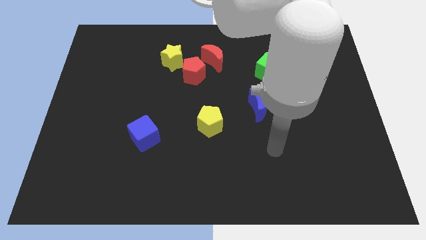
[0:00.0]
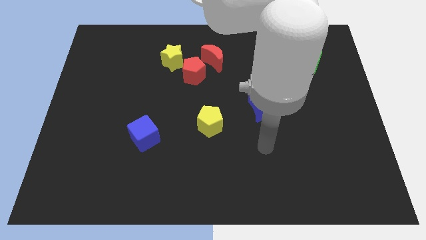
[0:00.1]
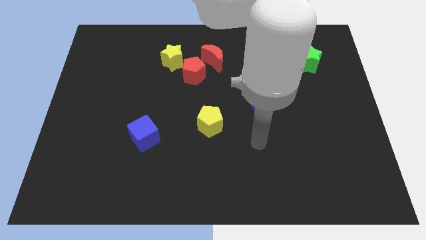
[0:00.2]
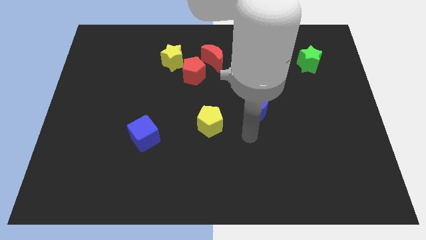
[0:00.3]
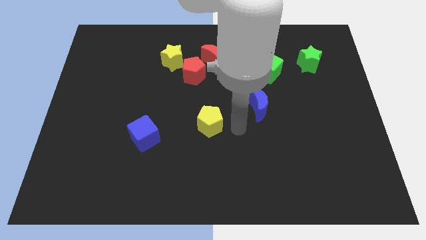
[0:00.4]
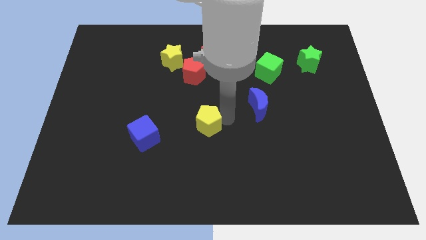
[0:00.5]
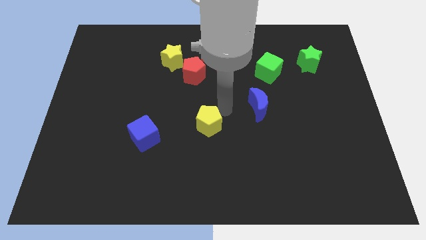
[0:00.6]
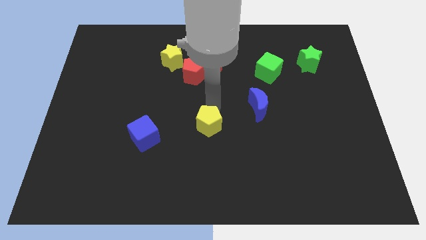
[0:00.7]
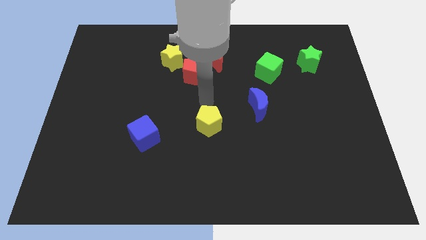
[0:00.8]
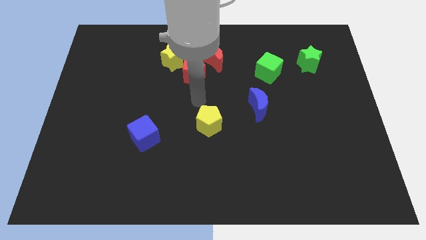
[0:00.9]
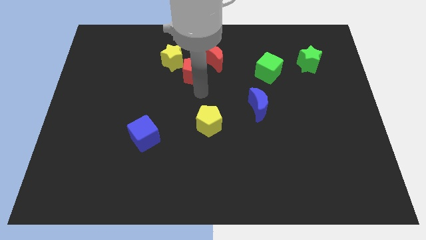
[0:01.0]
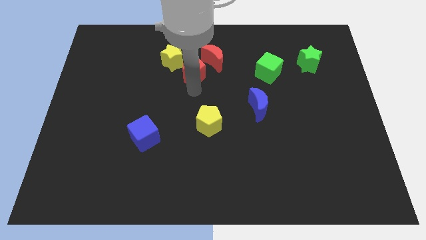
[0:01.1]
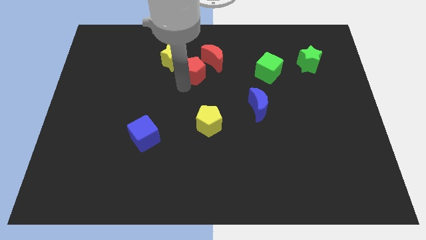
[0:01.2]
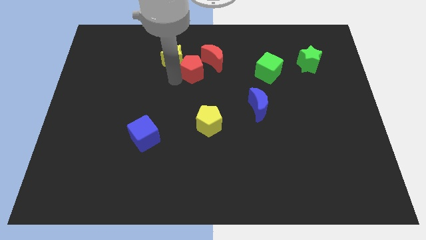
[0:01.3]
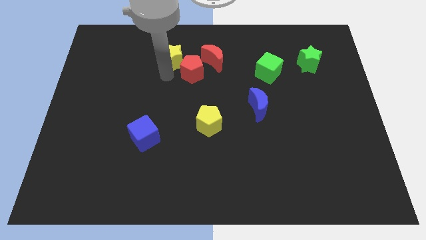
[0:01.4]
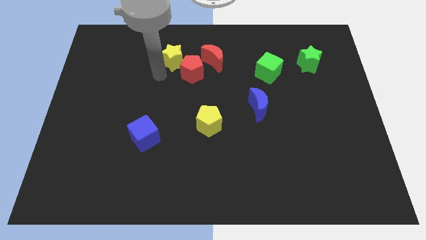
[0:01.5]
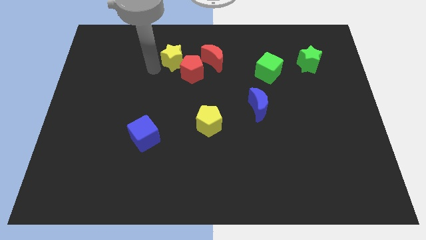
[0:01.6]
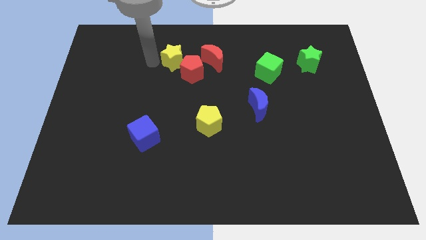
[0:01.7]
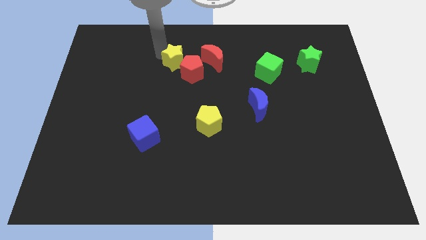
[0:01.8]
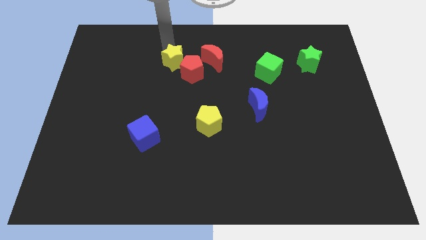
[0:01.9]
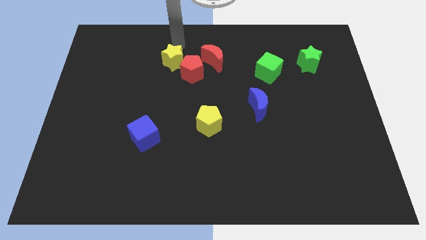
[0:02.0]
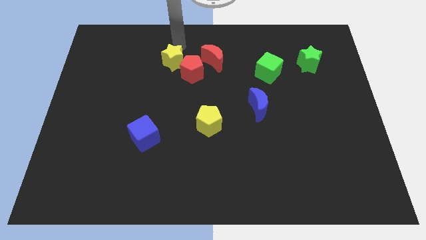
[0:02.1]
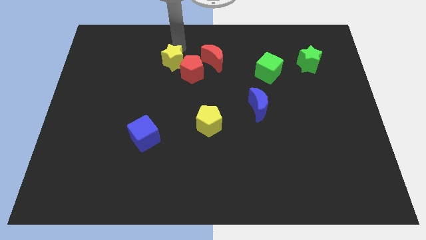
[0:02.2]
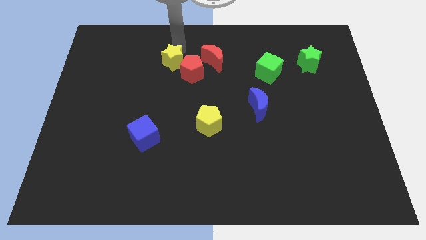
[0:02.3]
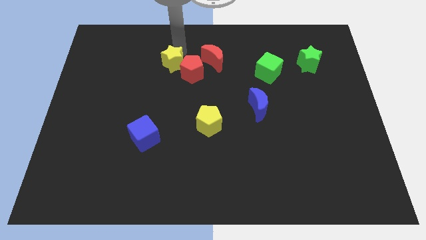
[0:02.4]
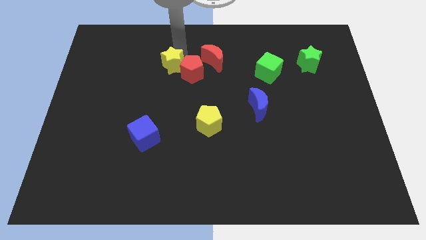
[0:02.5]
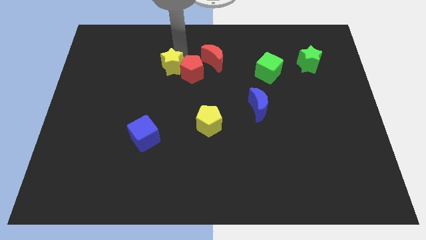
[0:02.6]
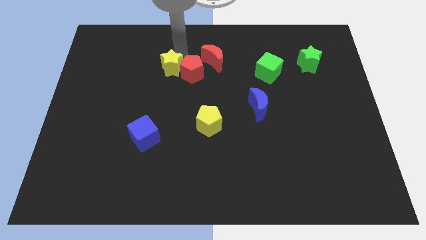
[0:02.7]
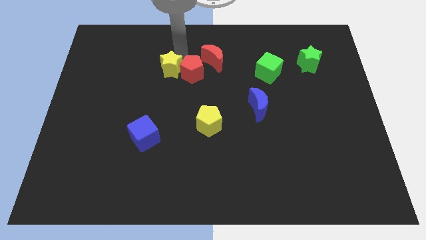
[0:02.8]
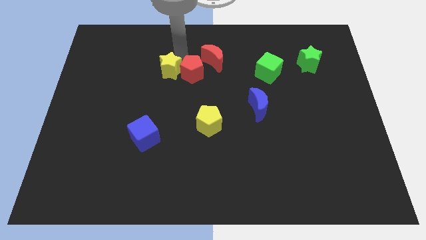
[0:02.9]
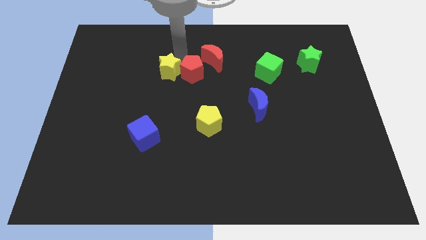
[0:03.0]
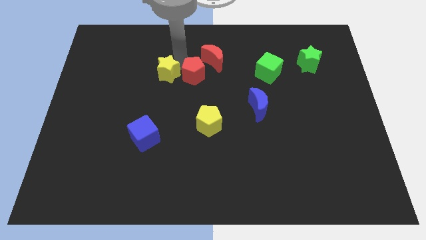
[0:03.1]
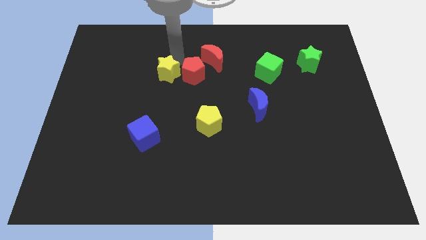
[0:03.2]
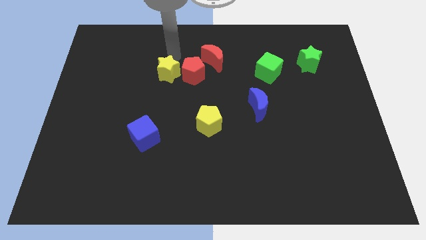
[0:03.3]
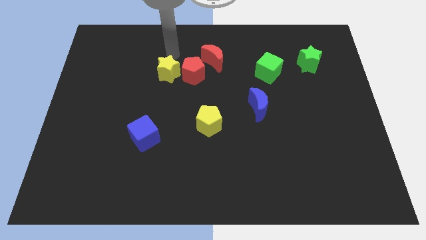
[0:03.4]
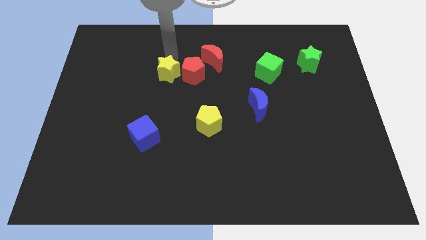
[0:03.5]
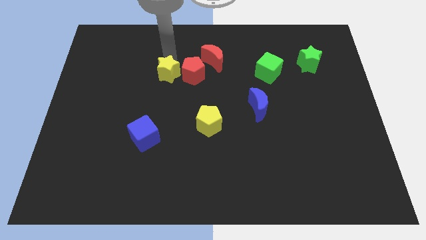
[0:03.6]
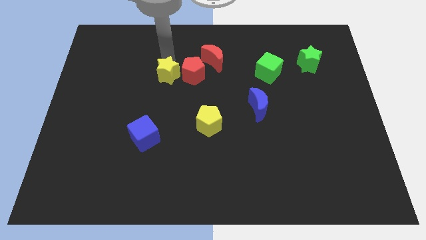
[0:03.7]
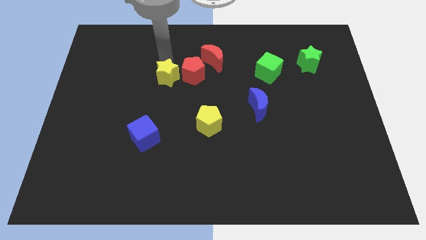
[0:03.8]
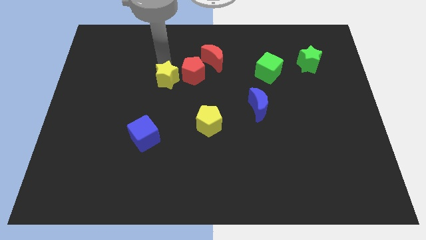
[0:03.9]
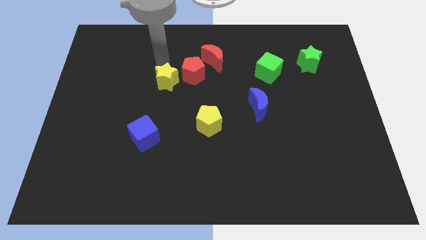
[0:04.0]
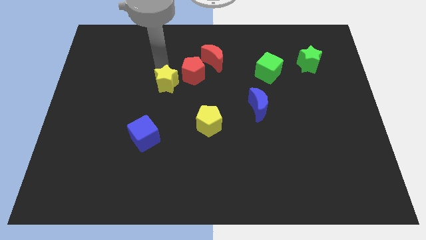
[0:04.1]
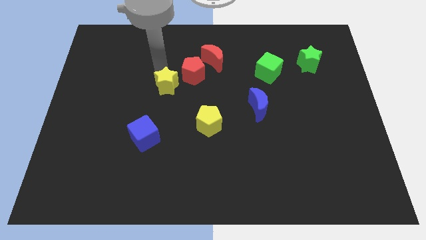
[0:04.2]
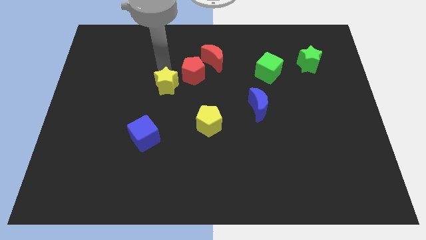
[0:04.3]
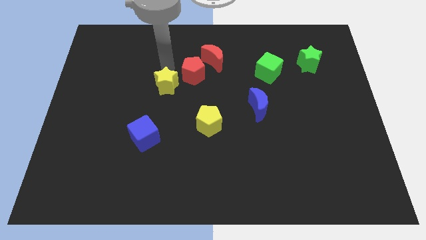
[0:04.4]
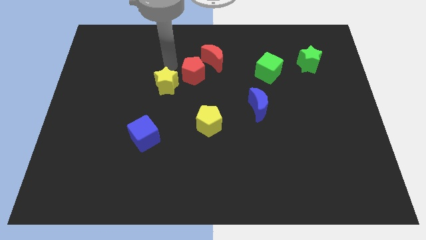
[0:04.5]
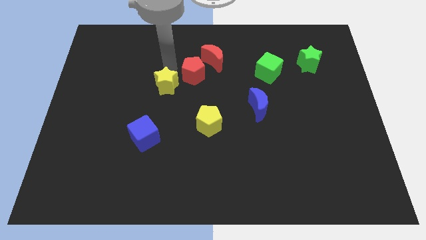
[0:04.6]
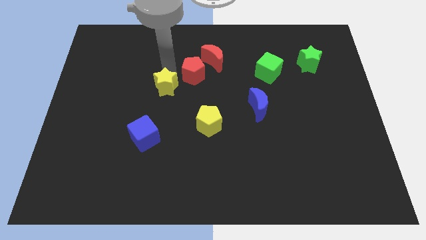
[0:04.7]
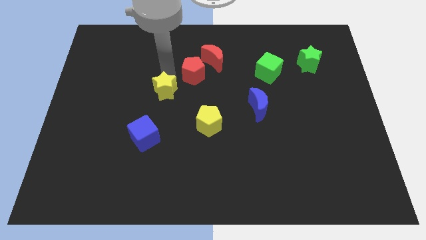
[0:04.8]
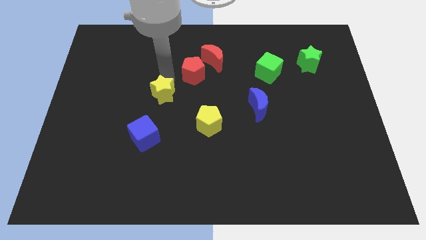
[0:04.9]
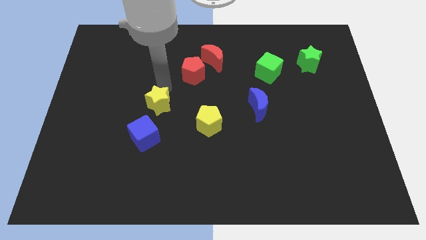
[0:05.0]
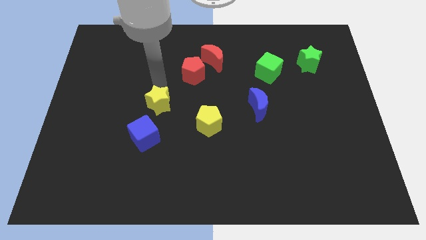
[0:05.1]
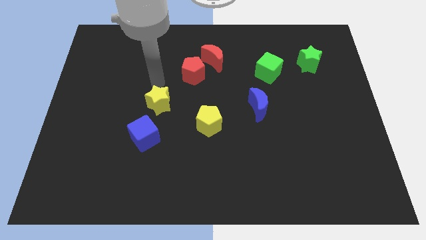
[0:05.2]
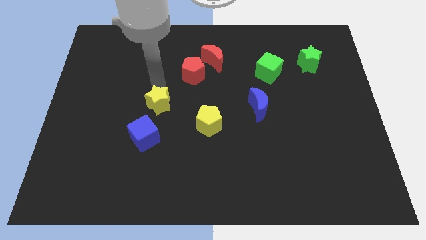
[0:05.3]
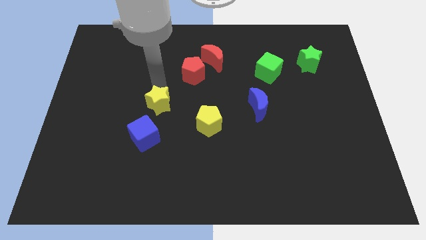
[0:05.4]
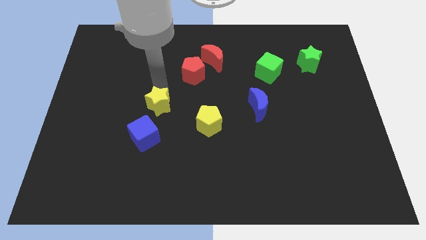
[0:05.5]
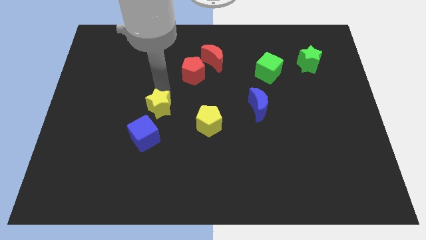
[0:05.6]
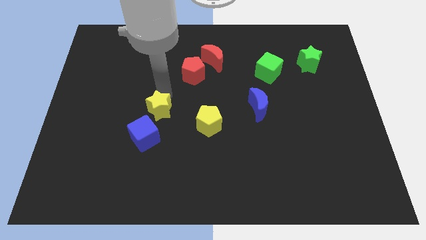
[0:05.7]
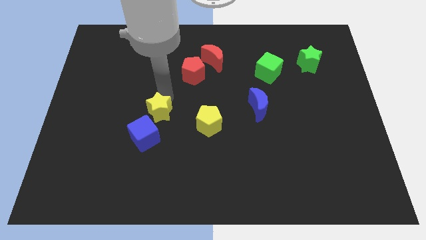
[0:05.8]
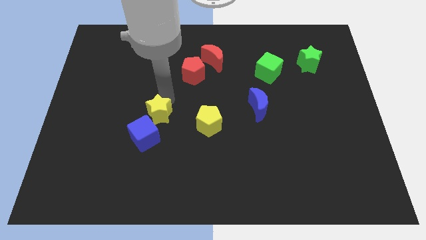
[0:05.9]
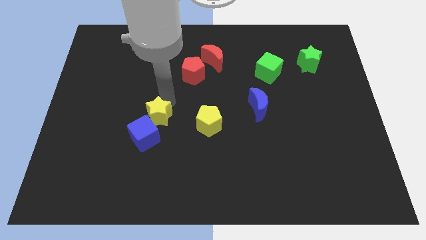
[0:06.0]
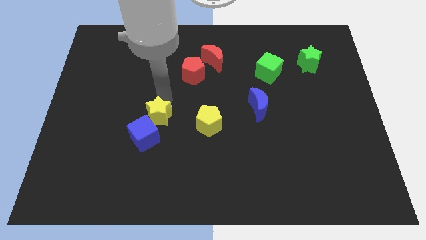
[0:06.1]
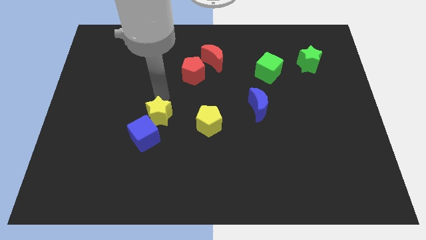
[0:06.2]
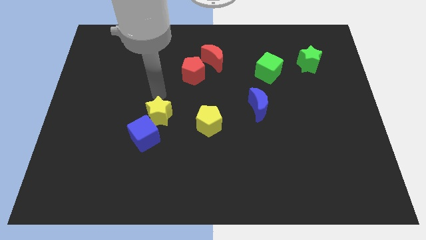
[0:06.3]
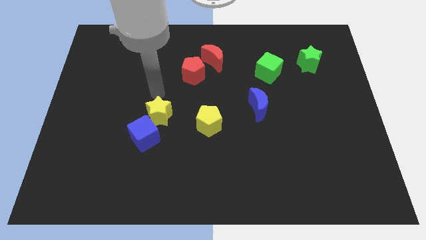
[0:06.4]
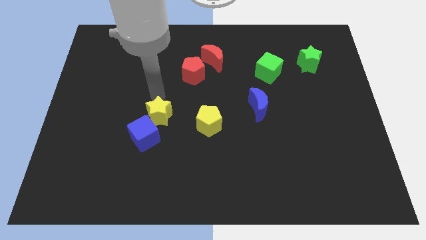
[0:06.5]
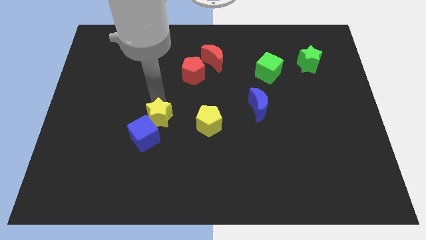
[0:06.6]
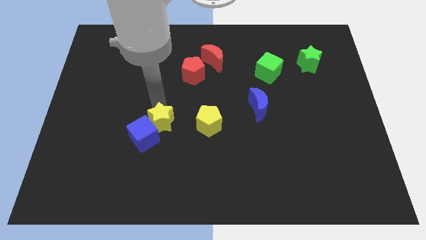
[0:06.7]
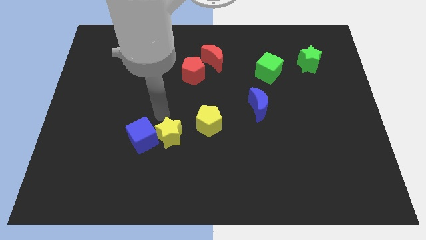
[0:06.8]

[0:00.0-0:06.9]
slide the yellow star downwards

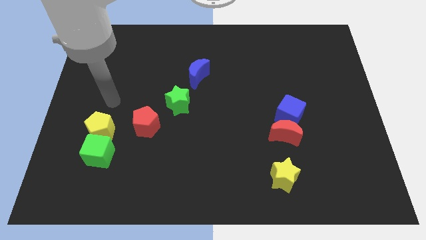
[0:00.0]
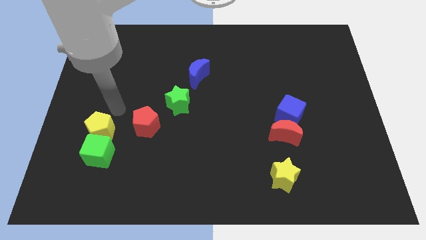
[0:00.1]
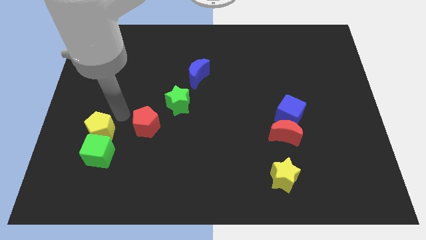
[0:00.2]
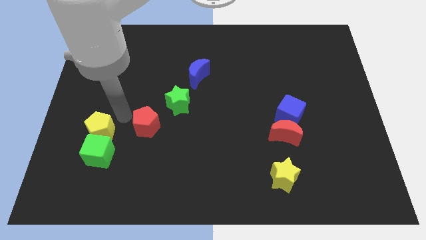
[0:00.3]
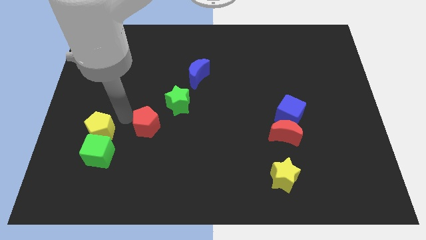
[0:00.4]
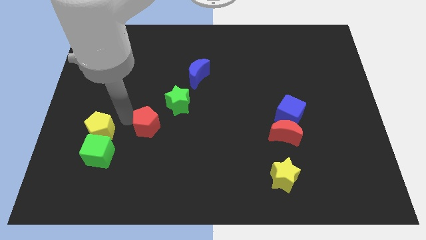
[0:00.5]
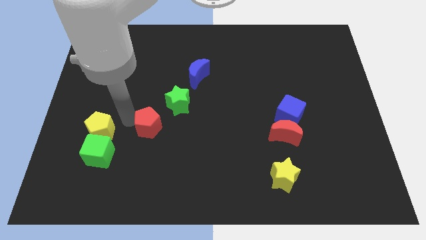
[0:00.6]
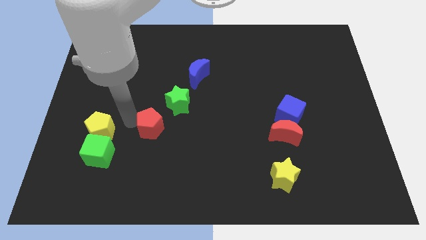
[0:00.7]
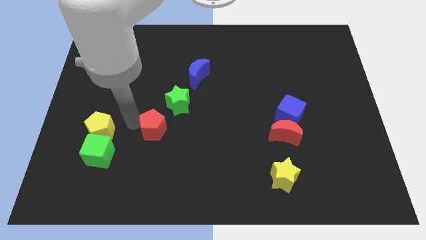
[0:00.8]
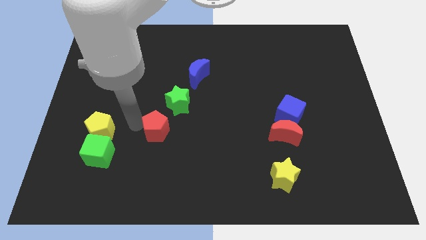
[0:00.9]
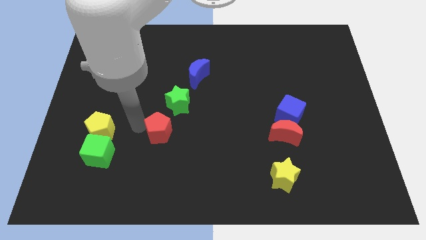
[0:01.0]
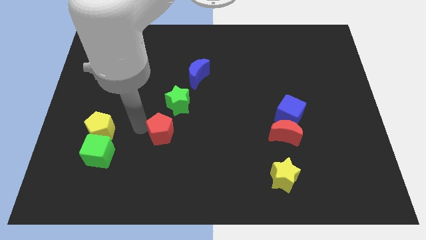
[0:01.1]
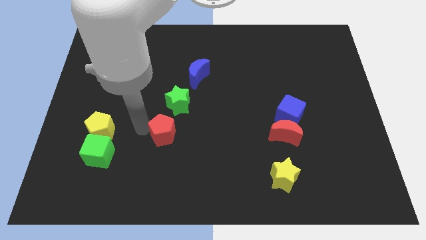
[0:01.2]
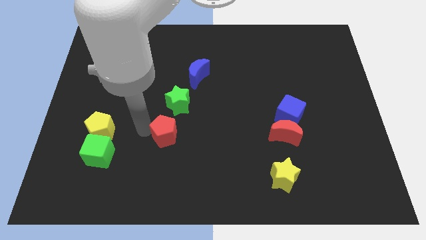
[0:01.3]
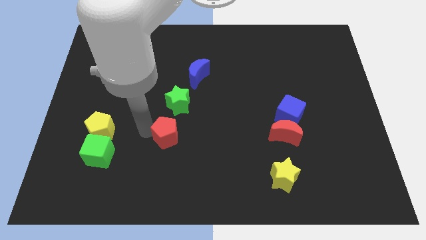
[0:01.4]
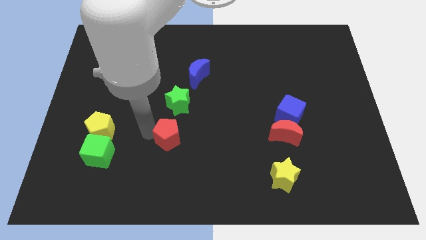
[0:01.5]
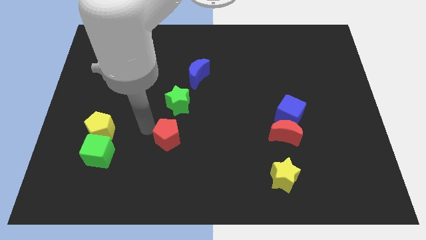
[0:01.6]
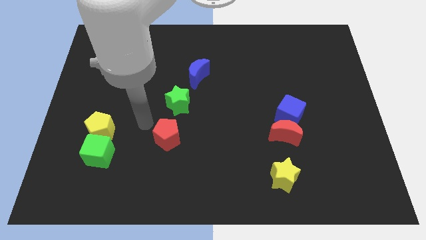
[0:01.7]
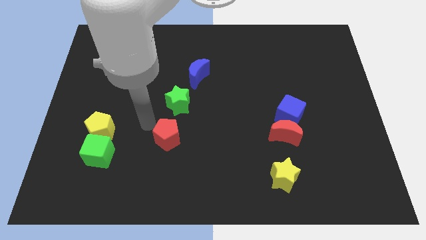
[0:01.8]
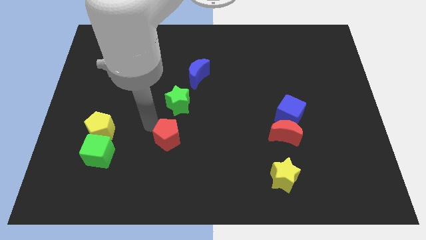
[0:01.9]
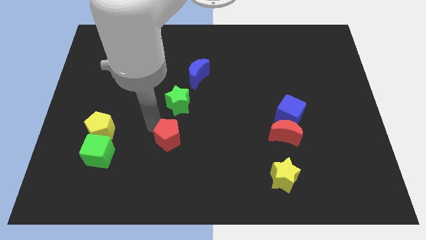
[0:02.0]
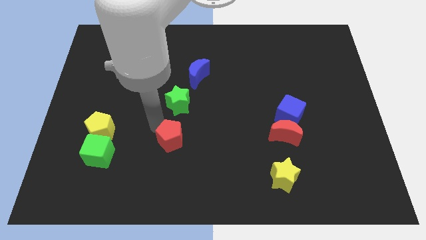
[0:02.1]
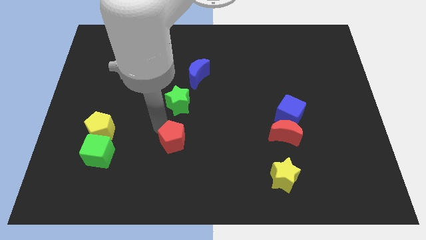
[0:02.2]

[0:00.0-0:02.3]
push the red pentagon downwards and then to the right somewhat
